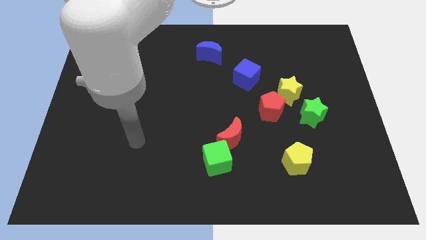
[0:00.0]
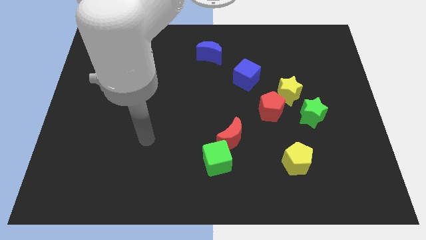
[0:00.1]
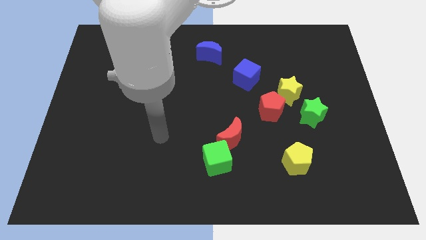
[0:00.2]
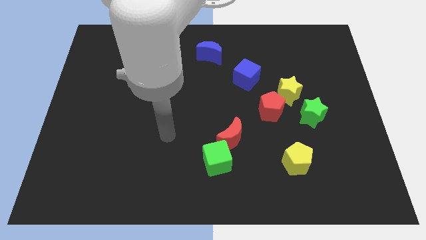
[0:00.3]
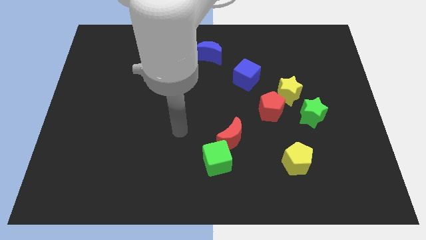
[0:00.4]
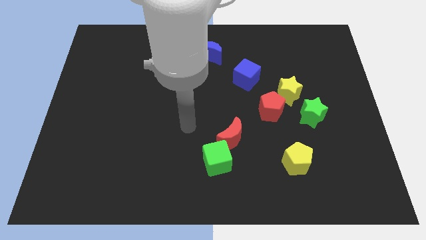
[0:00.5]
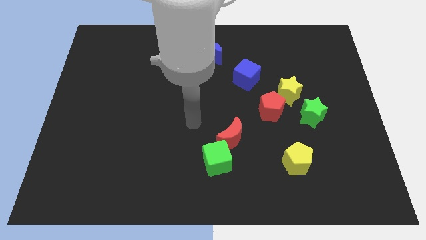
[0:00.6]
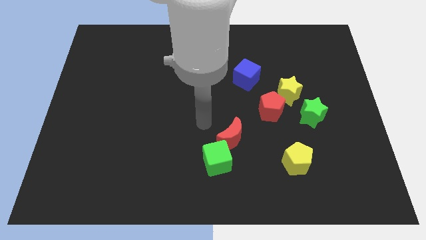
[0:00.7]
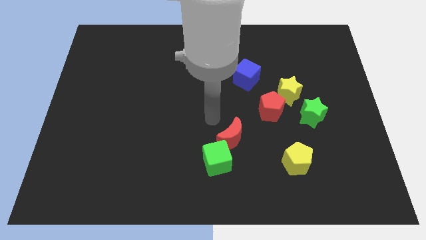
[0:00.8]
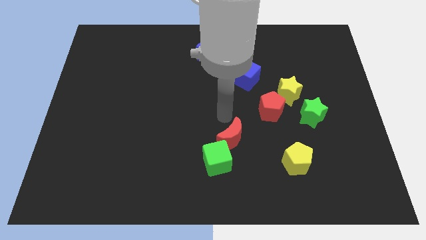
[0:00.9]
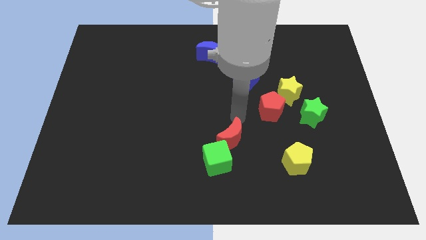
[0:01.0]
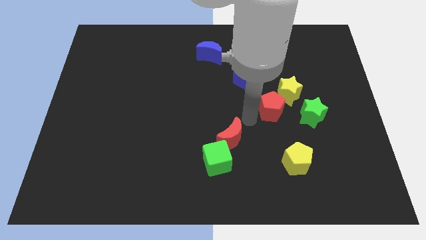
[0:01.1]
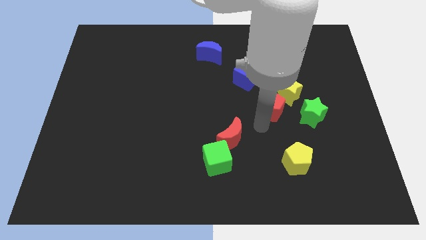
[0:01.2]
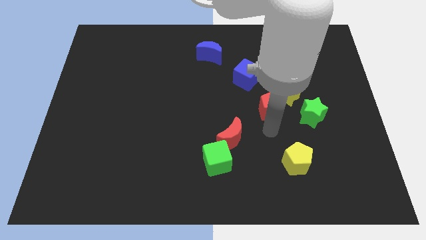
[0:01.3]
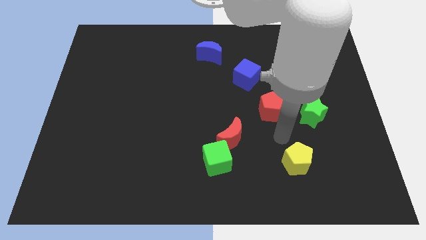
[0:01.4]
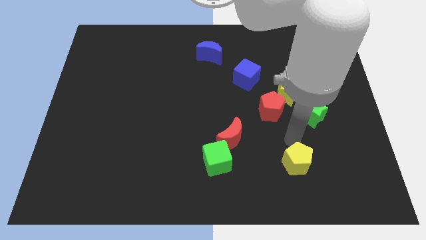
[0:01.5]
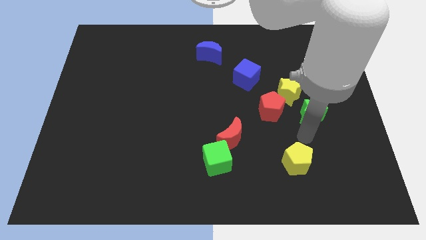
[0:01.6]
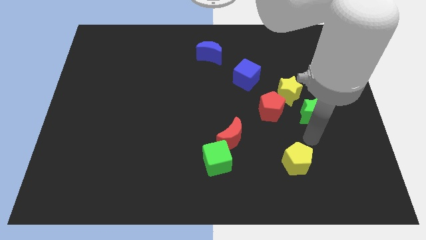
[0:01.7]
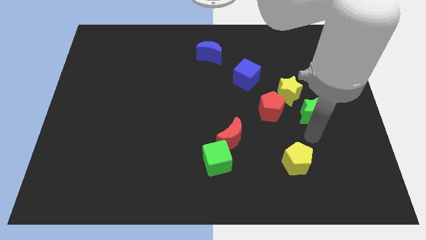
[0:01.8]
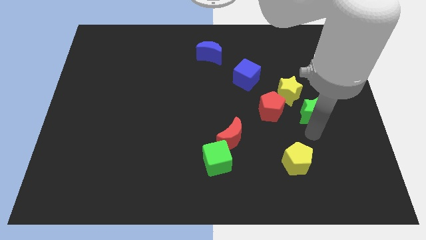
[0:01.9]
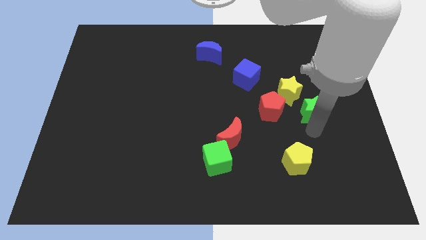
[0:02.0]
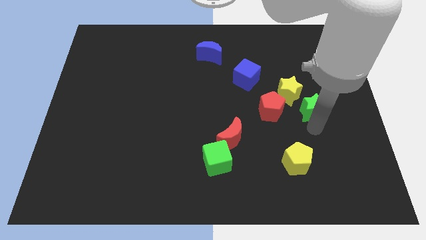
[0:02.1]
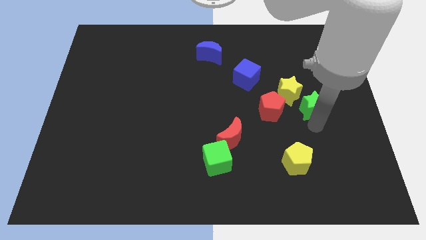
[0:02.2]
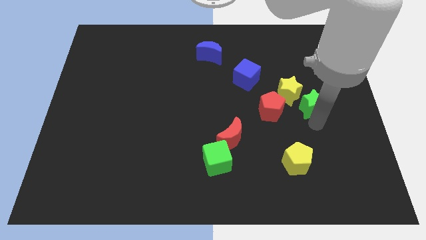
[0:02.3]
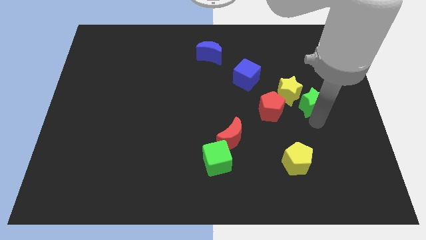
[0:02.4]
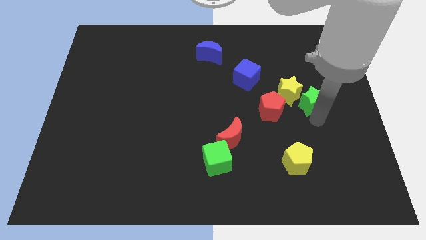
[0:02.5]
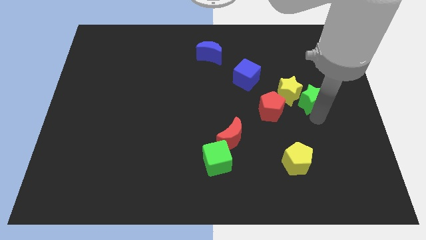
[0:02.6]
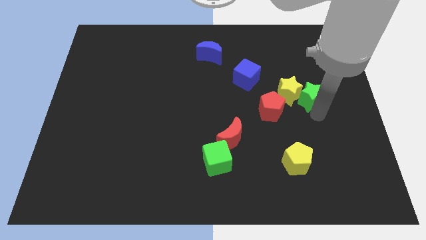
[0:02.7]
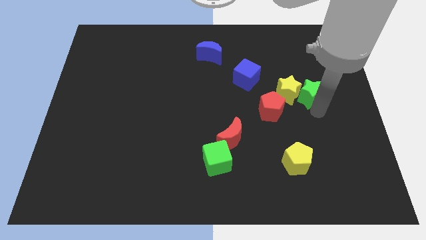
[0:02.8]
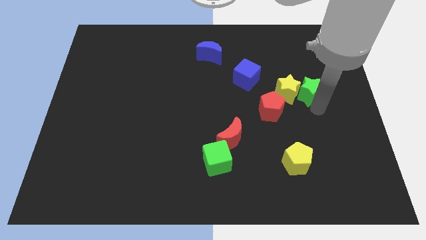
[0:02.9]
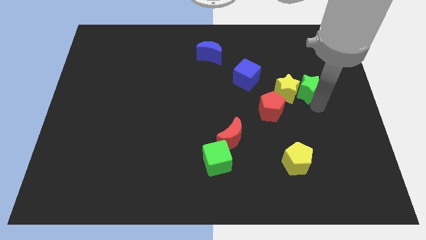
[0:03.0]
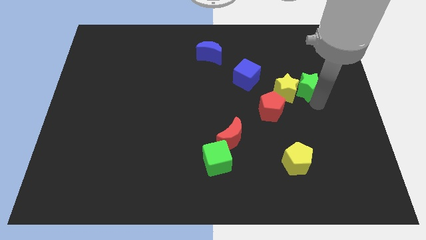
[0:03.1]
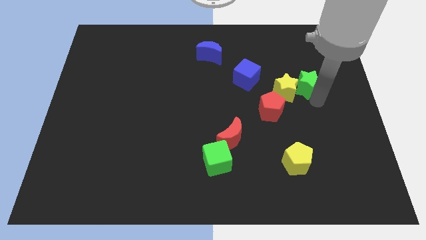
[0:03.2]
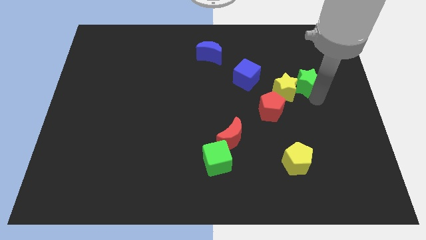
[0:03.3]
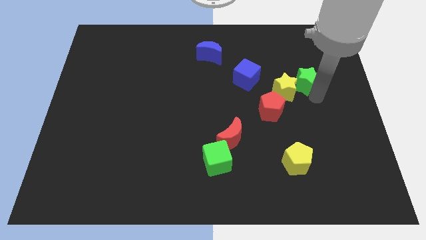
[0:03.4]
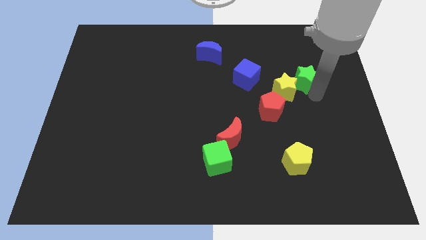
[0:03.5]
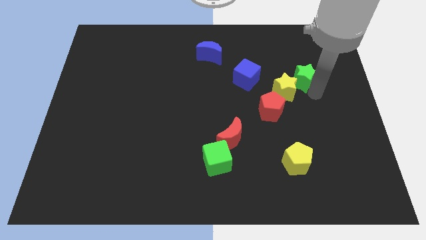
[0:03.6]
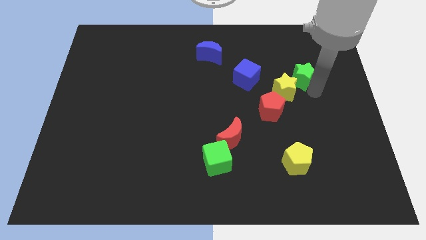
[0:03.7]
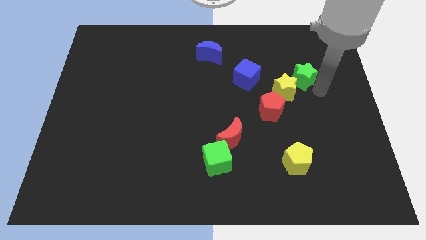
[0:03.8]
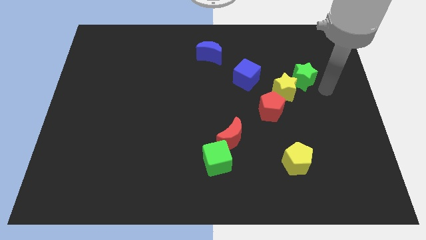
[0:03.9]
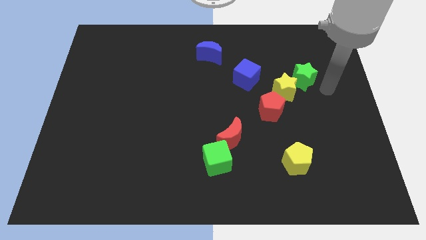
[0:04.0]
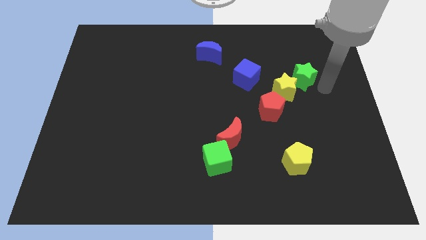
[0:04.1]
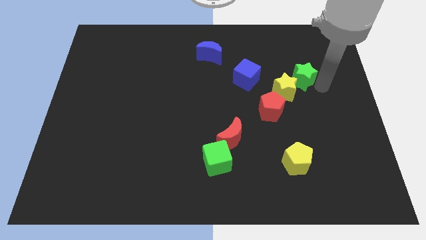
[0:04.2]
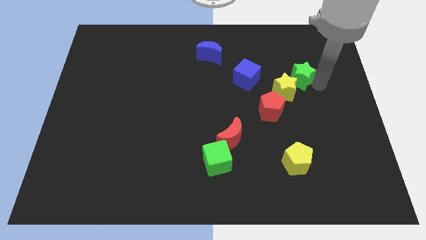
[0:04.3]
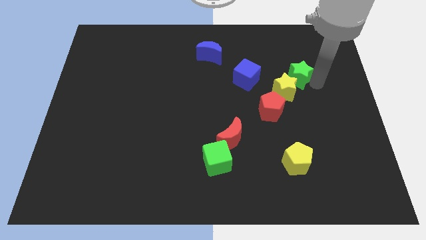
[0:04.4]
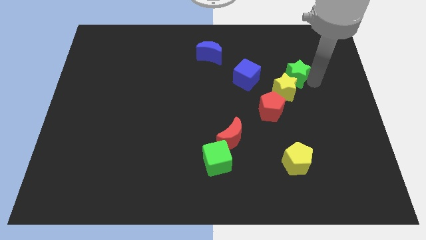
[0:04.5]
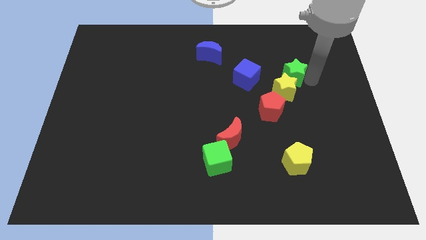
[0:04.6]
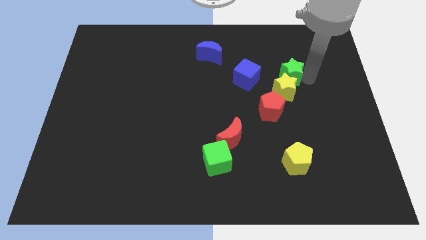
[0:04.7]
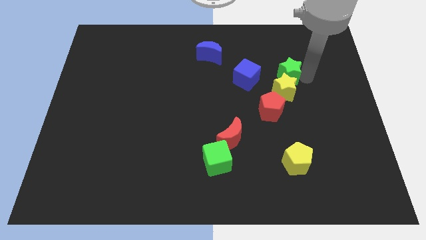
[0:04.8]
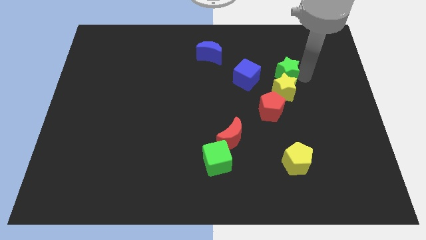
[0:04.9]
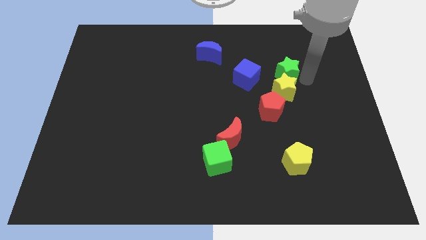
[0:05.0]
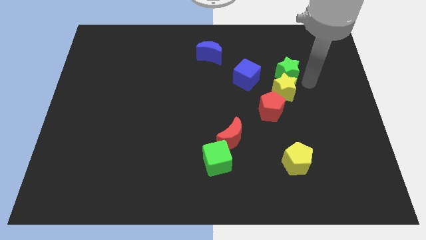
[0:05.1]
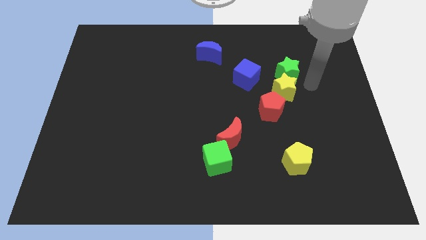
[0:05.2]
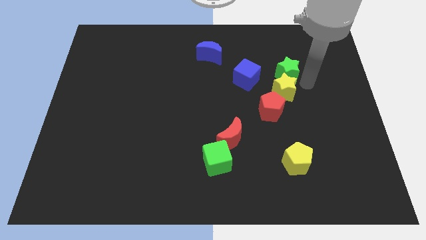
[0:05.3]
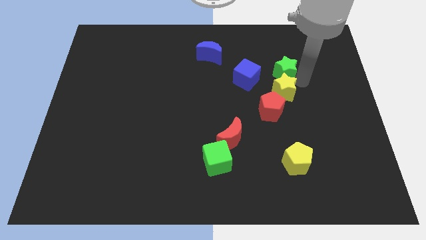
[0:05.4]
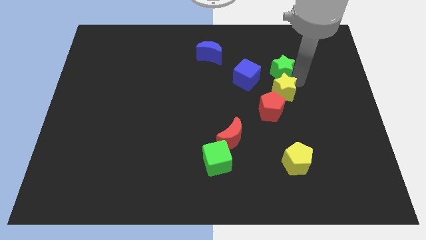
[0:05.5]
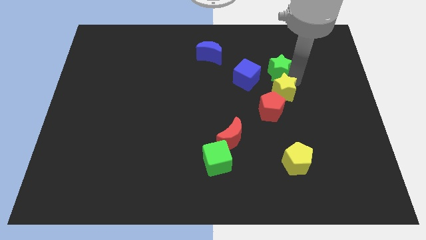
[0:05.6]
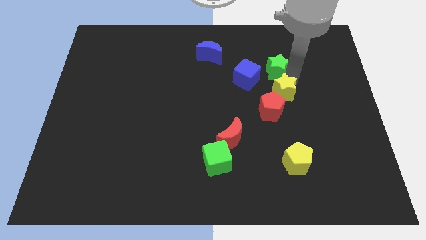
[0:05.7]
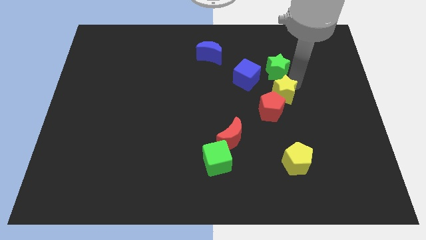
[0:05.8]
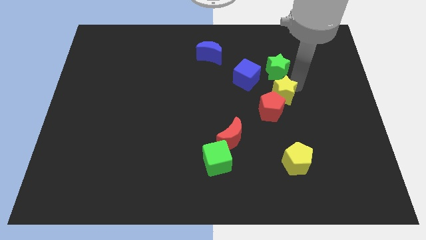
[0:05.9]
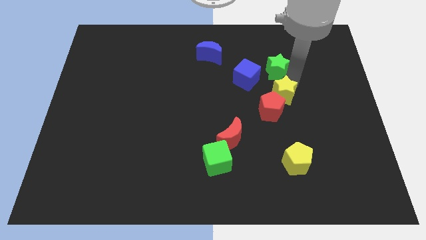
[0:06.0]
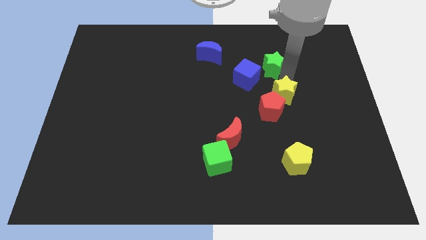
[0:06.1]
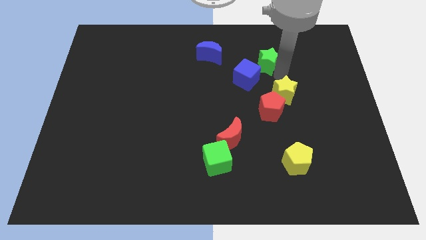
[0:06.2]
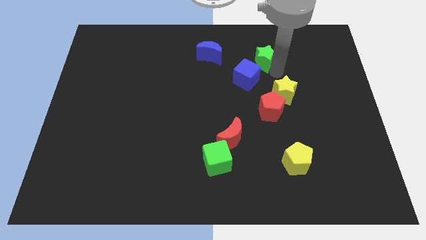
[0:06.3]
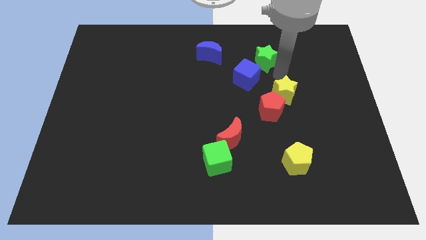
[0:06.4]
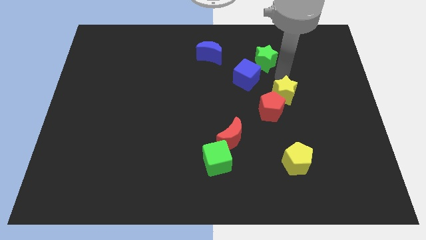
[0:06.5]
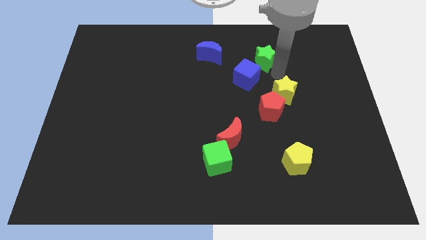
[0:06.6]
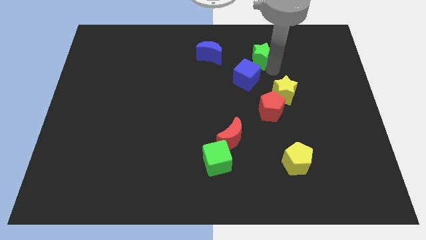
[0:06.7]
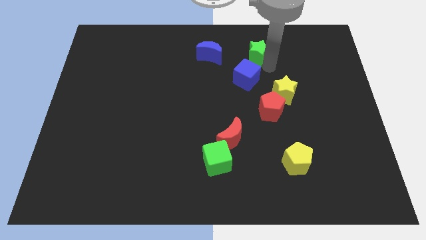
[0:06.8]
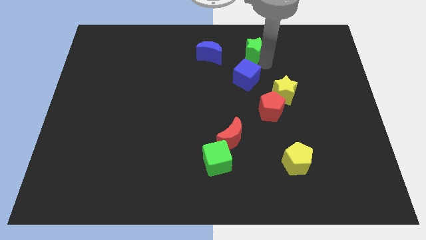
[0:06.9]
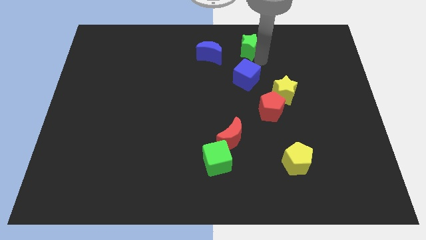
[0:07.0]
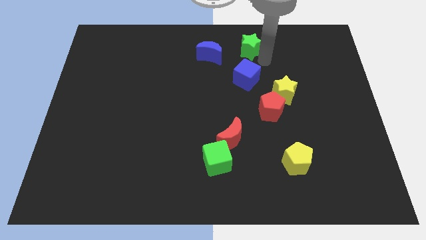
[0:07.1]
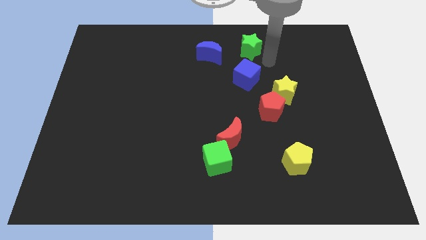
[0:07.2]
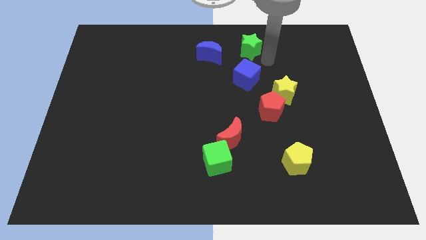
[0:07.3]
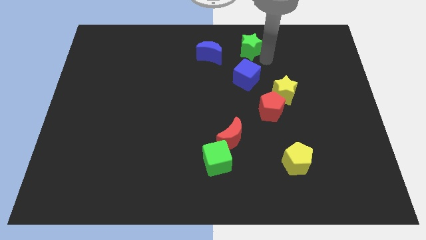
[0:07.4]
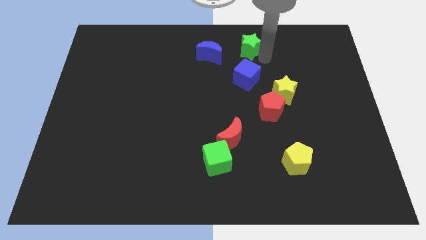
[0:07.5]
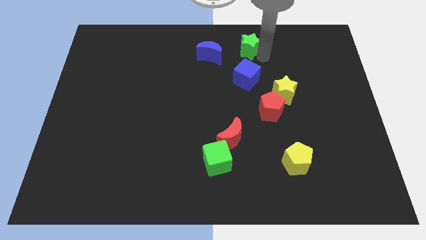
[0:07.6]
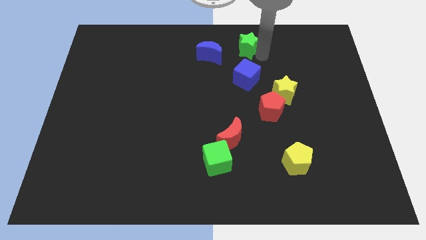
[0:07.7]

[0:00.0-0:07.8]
slide the green star to the top side
